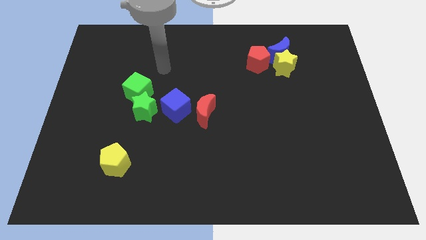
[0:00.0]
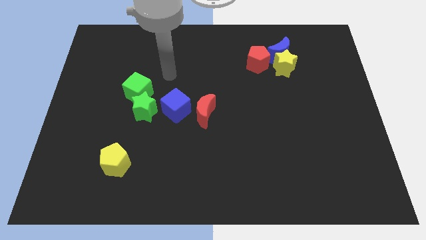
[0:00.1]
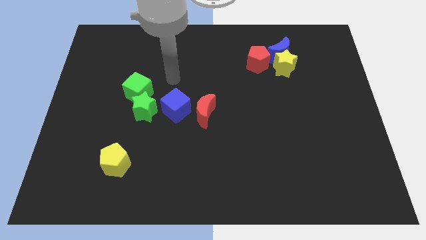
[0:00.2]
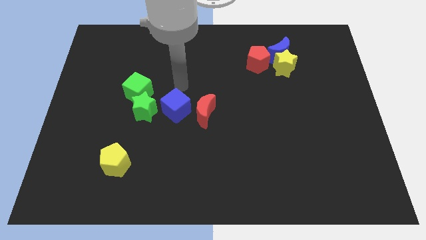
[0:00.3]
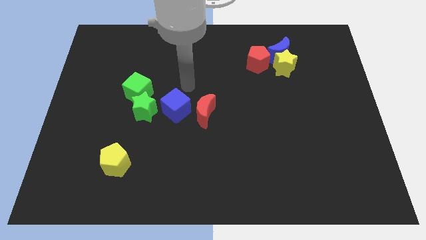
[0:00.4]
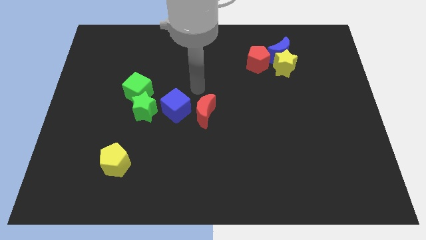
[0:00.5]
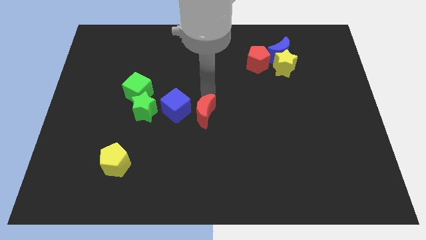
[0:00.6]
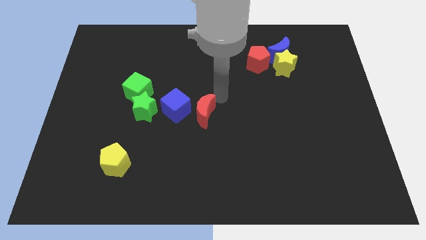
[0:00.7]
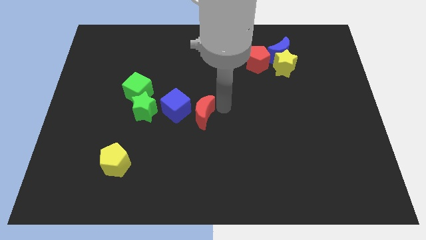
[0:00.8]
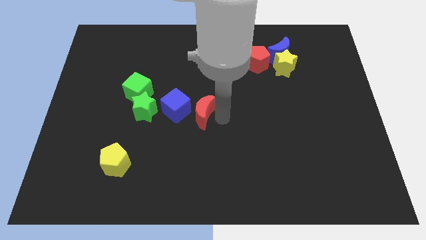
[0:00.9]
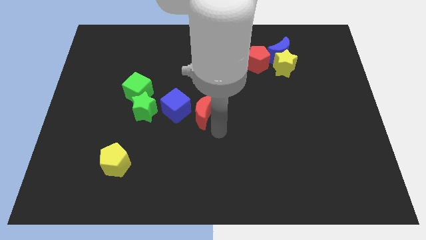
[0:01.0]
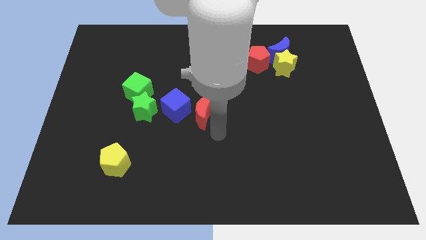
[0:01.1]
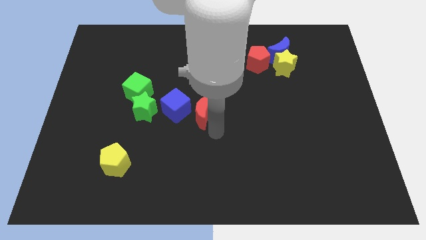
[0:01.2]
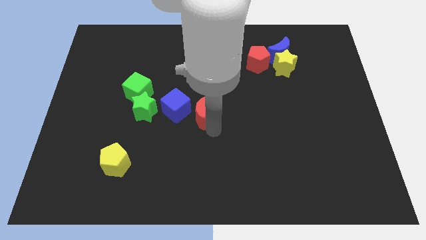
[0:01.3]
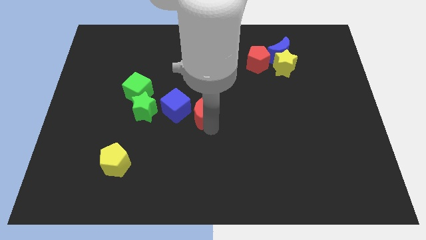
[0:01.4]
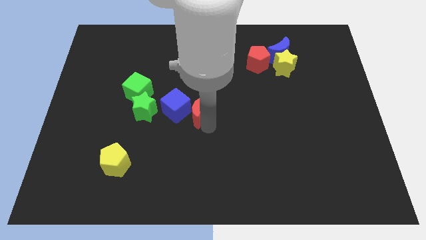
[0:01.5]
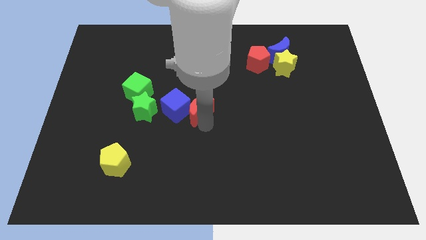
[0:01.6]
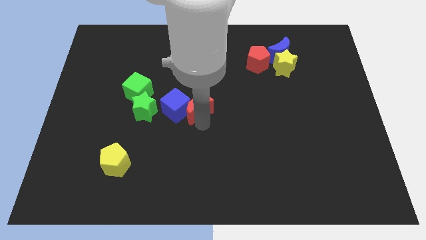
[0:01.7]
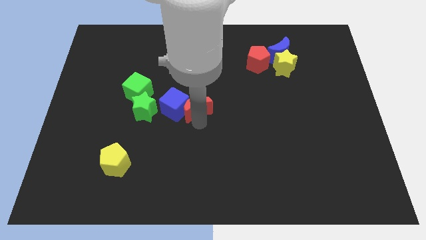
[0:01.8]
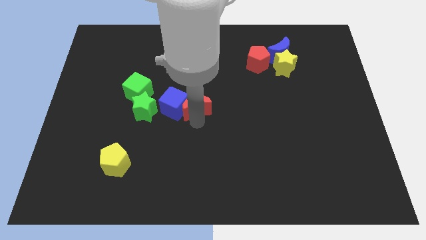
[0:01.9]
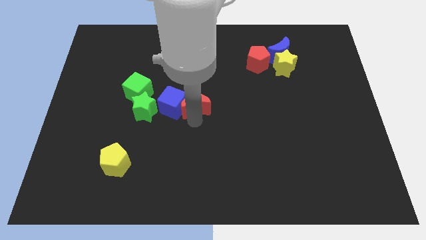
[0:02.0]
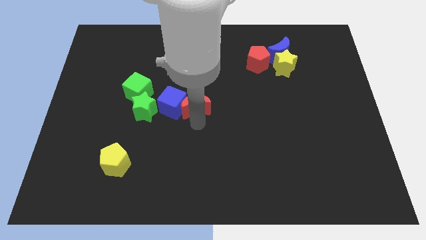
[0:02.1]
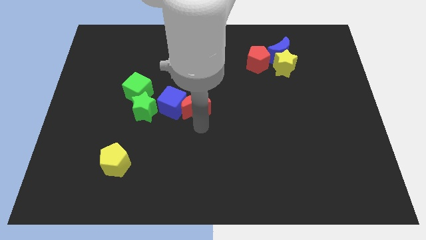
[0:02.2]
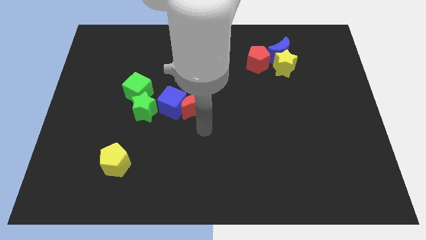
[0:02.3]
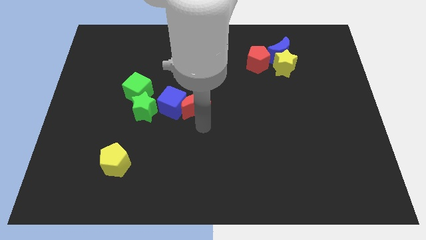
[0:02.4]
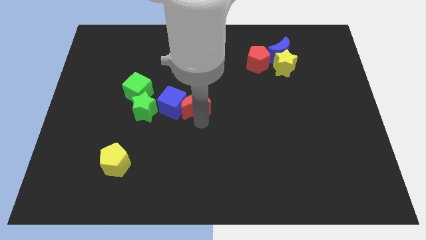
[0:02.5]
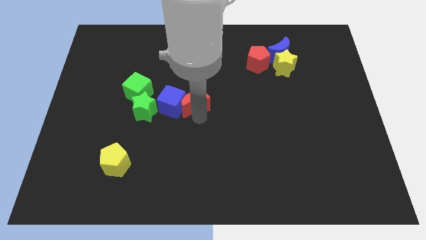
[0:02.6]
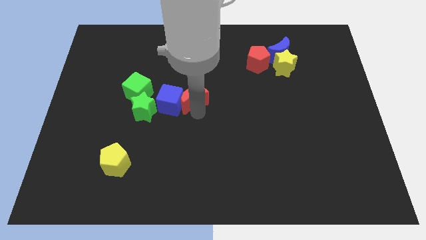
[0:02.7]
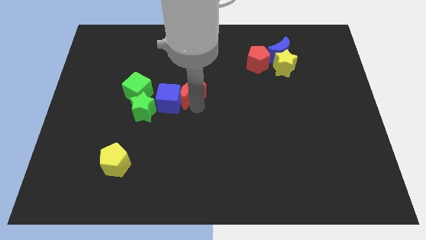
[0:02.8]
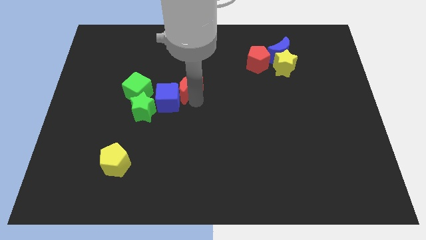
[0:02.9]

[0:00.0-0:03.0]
slide the red moon up and left a little

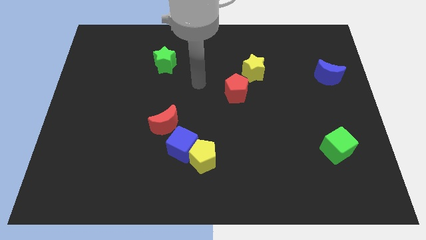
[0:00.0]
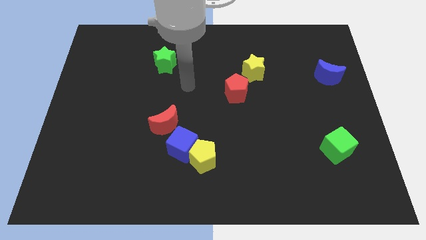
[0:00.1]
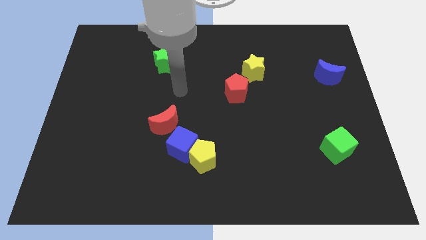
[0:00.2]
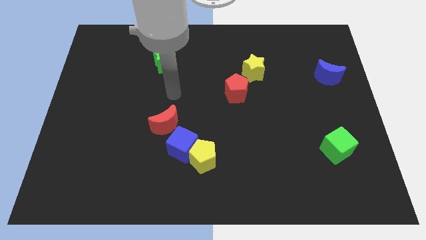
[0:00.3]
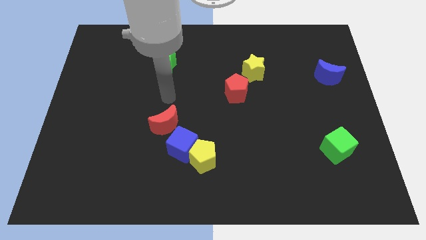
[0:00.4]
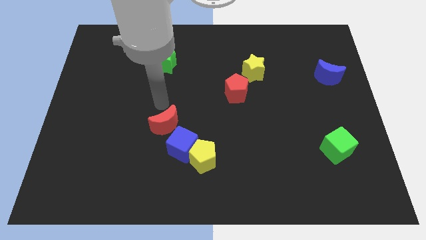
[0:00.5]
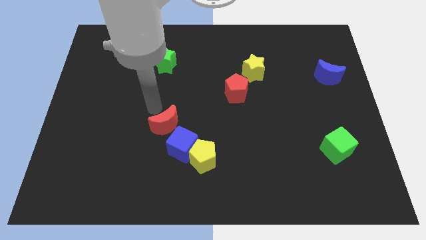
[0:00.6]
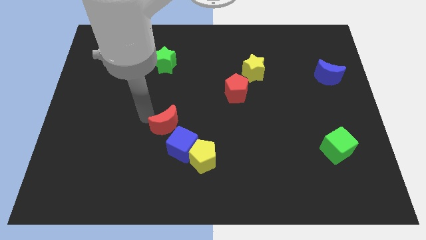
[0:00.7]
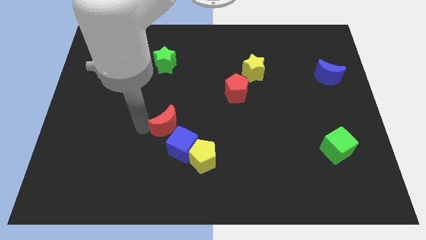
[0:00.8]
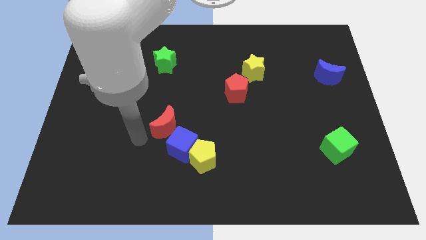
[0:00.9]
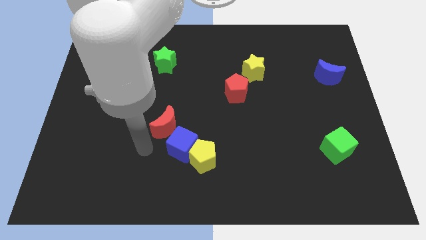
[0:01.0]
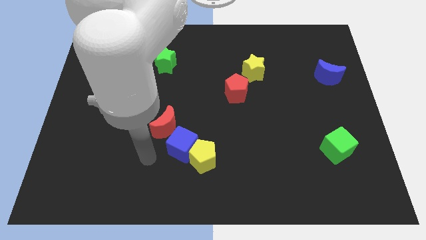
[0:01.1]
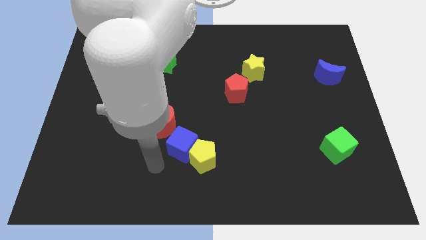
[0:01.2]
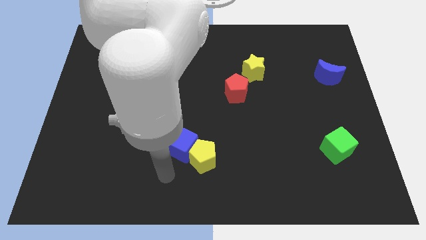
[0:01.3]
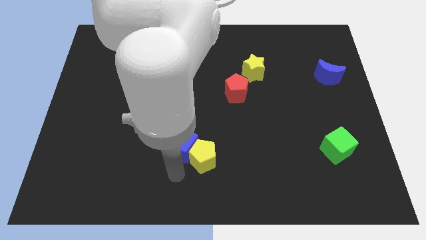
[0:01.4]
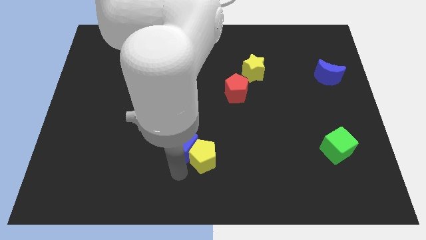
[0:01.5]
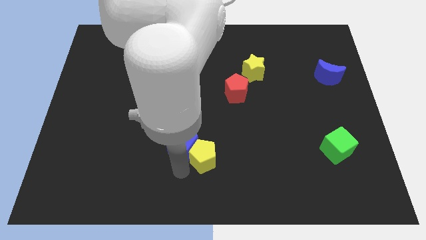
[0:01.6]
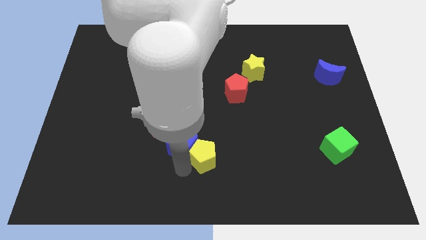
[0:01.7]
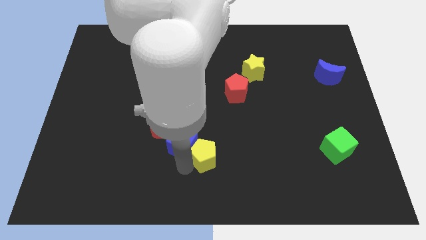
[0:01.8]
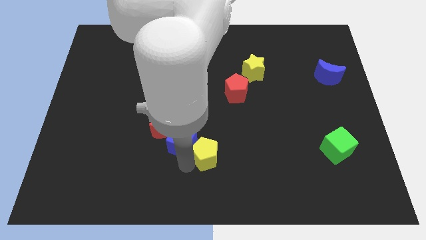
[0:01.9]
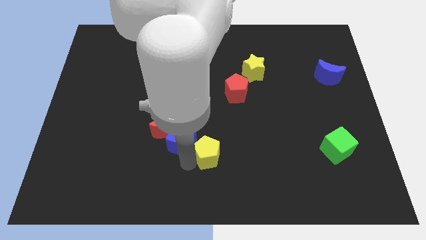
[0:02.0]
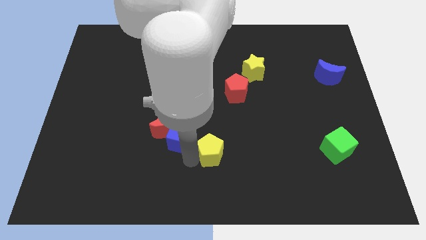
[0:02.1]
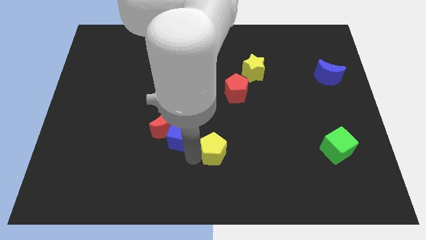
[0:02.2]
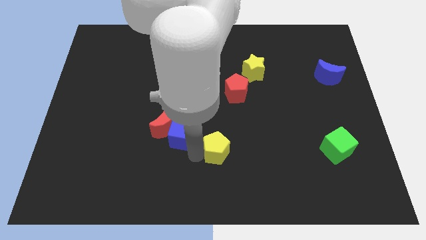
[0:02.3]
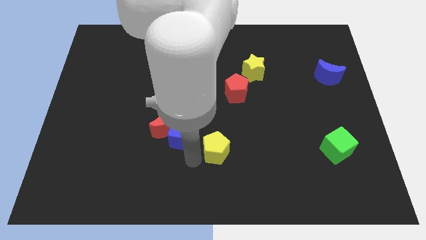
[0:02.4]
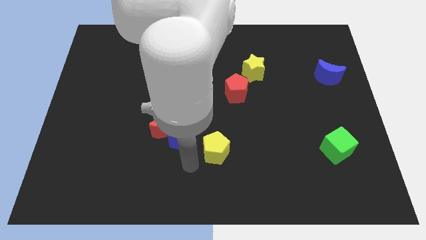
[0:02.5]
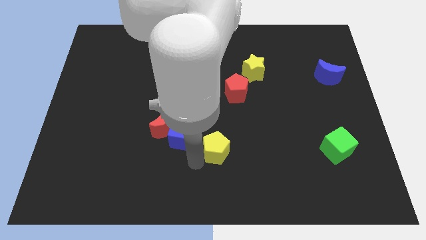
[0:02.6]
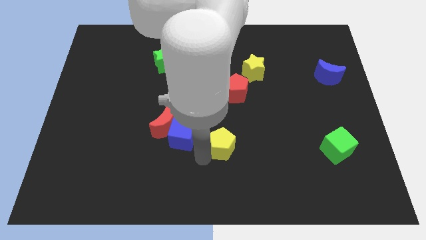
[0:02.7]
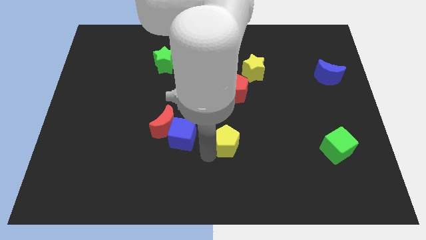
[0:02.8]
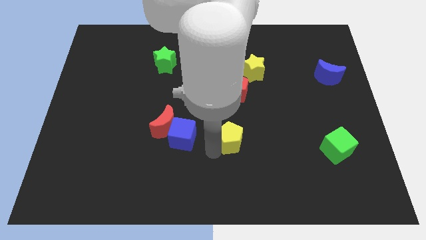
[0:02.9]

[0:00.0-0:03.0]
move the yellow pentagon up and to the right diagonally slightly

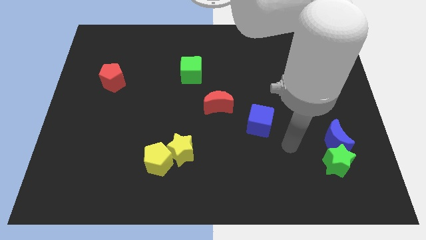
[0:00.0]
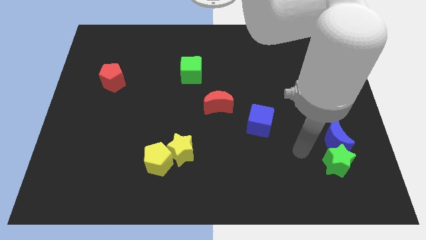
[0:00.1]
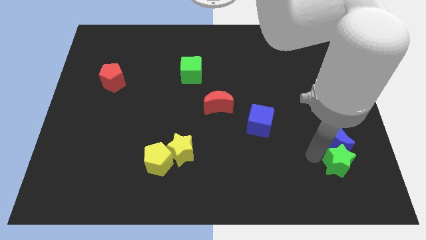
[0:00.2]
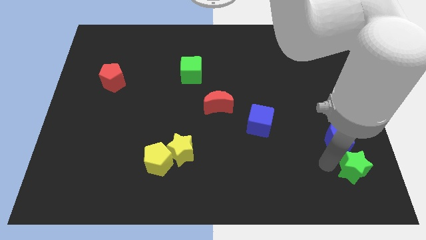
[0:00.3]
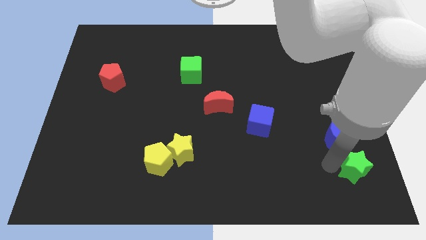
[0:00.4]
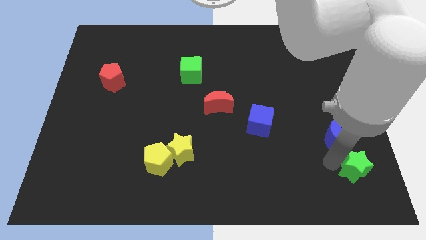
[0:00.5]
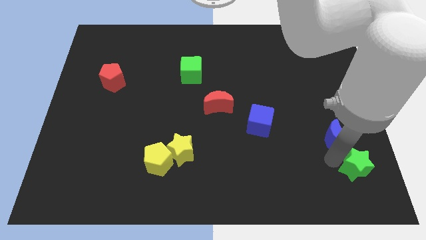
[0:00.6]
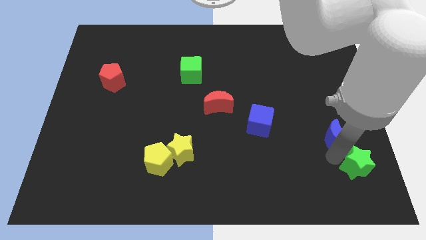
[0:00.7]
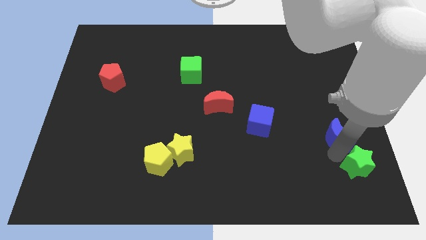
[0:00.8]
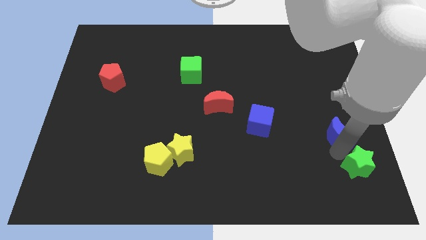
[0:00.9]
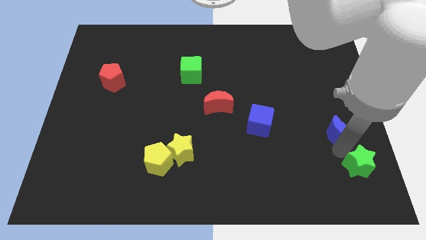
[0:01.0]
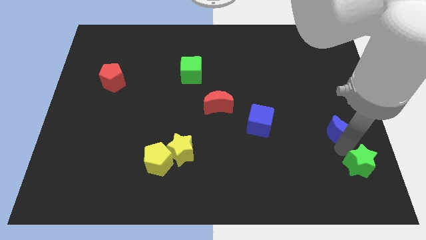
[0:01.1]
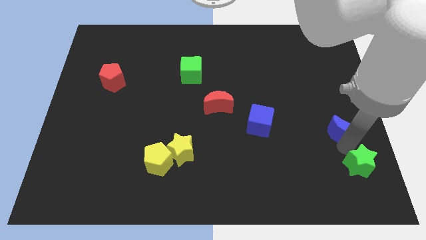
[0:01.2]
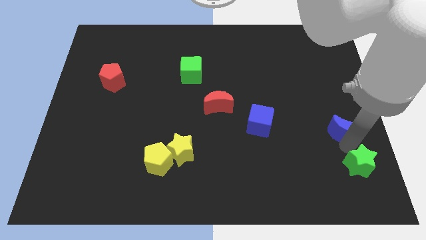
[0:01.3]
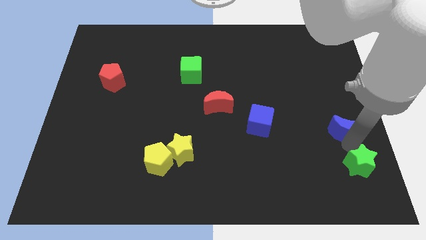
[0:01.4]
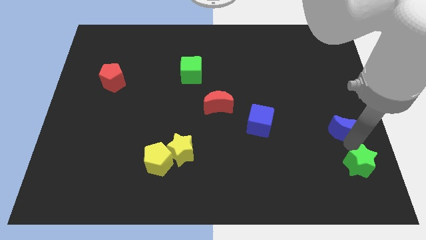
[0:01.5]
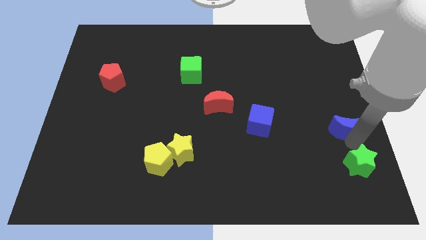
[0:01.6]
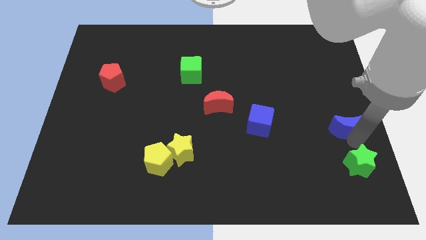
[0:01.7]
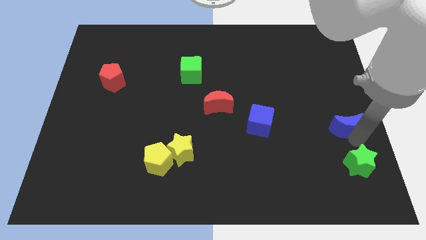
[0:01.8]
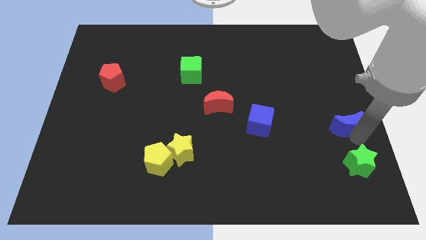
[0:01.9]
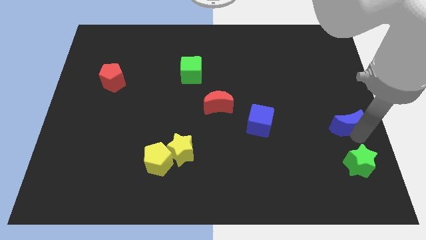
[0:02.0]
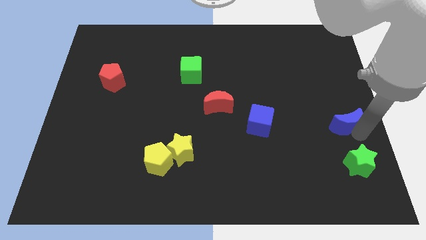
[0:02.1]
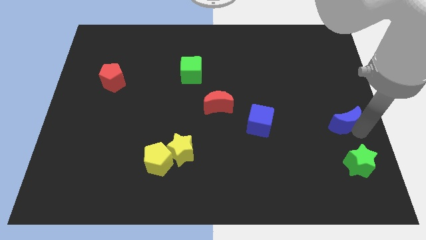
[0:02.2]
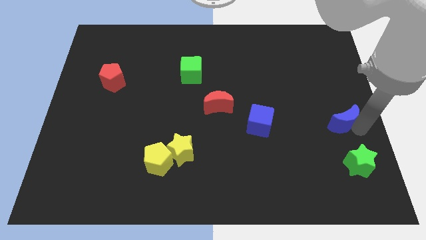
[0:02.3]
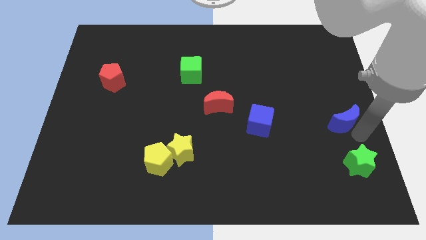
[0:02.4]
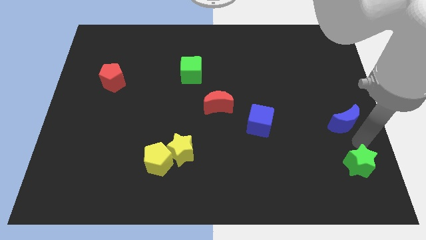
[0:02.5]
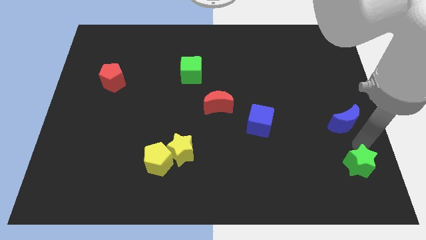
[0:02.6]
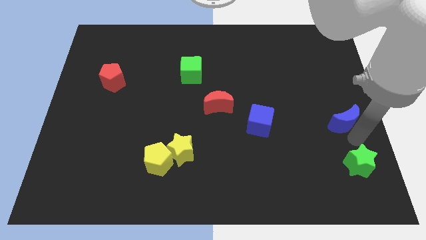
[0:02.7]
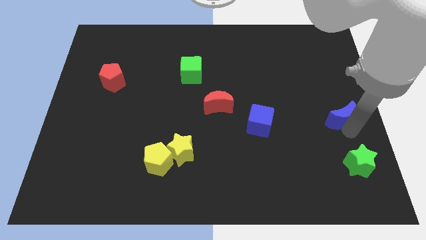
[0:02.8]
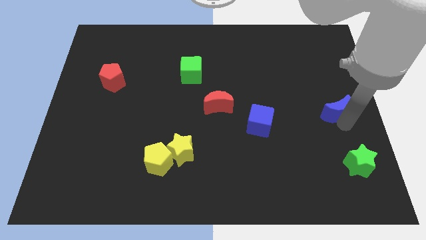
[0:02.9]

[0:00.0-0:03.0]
move the blue moon somewhat up
